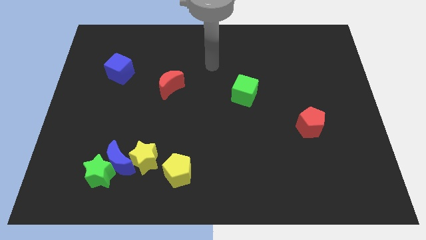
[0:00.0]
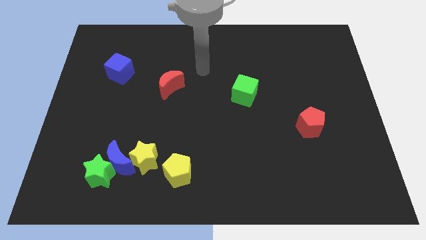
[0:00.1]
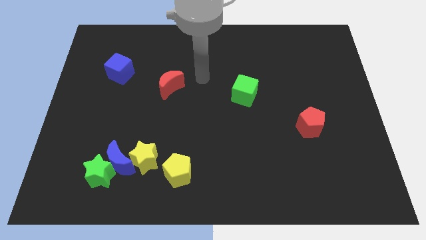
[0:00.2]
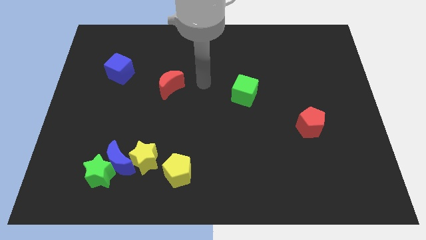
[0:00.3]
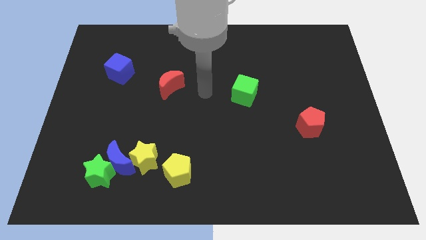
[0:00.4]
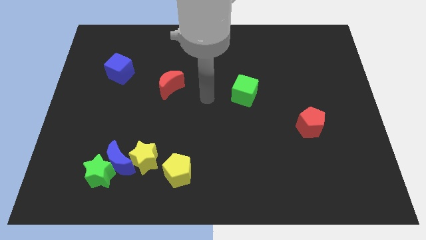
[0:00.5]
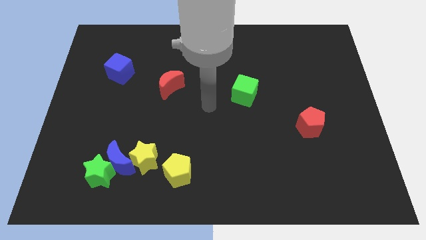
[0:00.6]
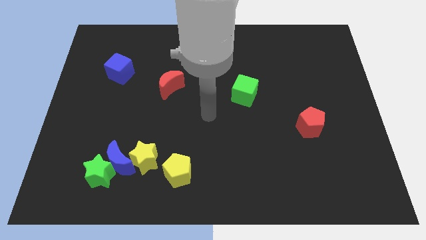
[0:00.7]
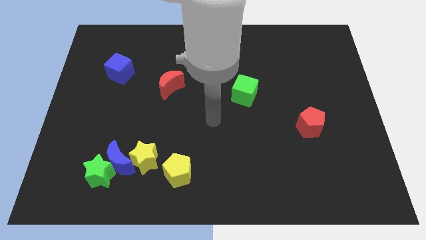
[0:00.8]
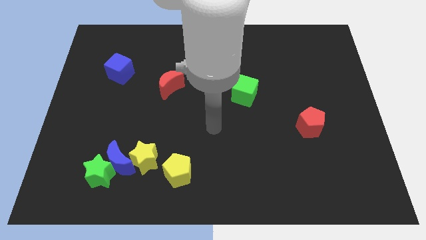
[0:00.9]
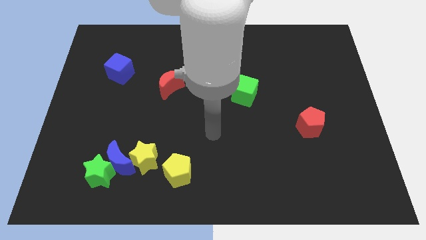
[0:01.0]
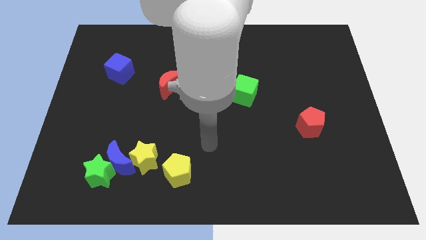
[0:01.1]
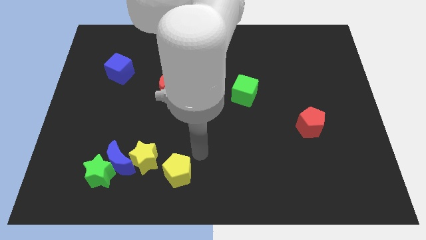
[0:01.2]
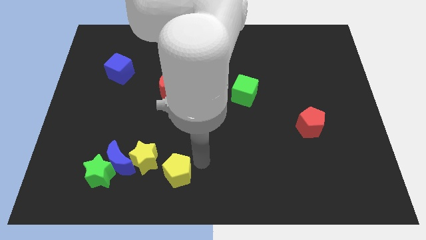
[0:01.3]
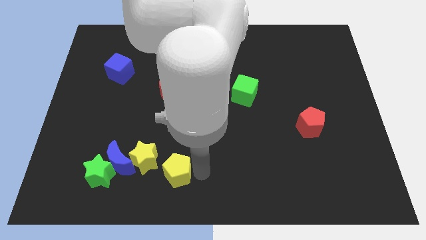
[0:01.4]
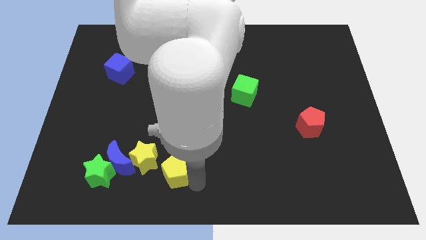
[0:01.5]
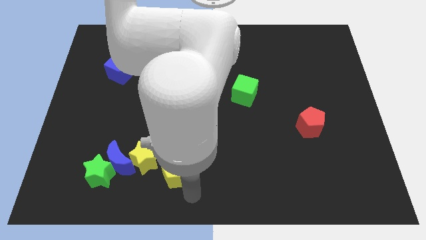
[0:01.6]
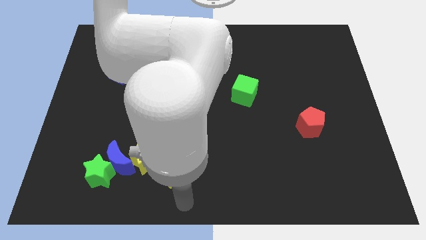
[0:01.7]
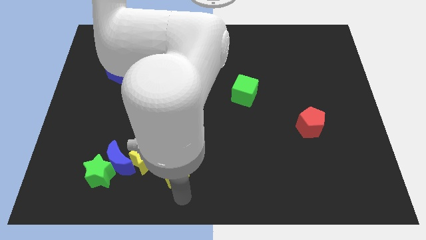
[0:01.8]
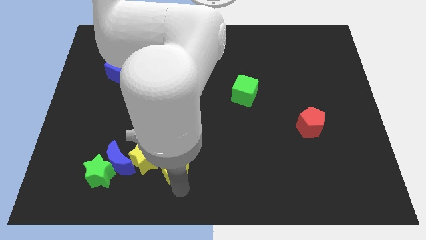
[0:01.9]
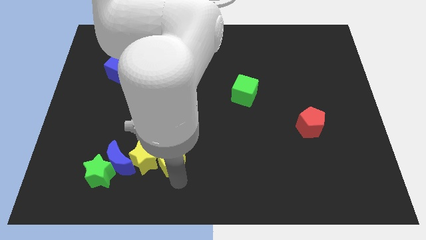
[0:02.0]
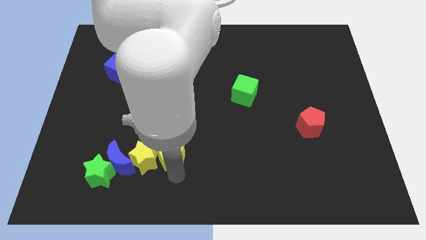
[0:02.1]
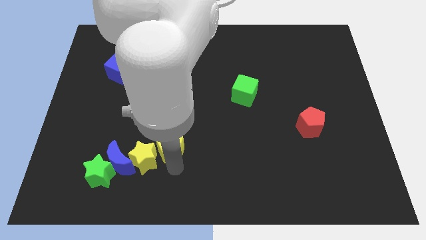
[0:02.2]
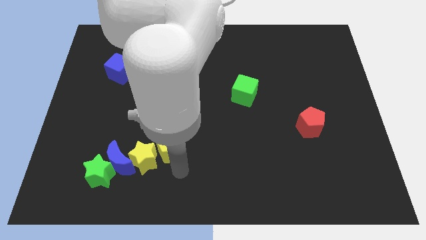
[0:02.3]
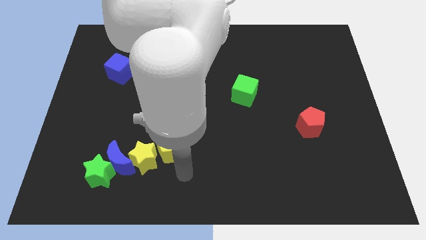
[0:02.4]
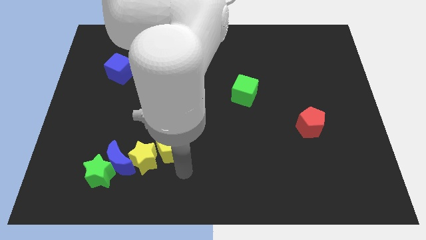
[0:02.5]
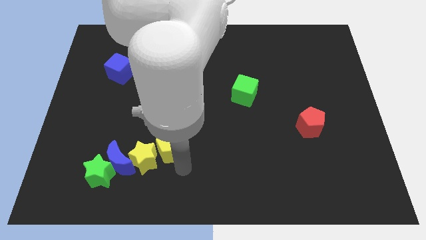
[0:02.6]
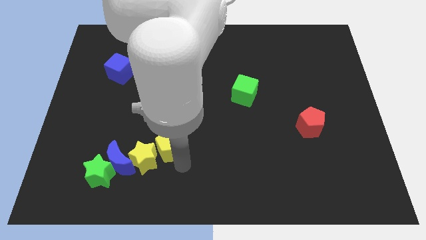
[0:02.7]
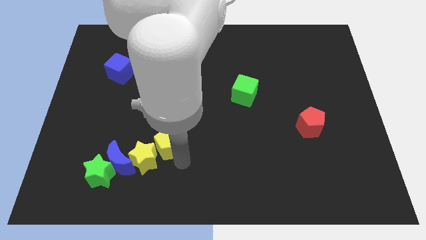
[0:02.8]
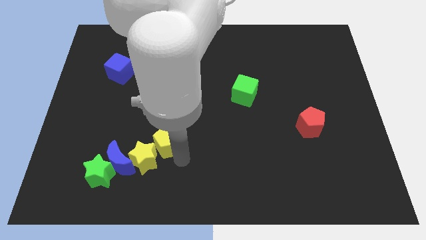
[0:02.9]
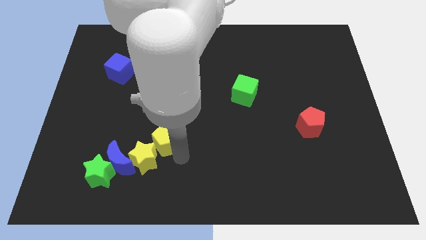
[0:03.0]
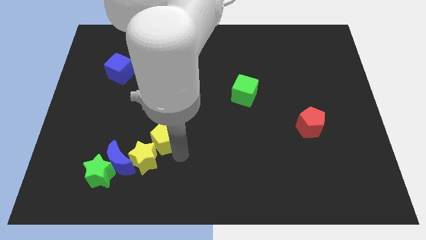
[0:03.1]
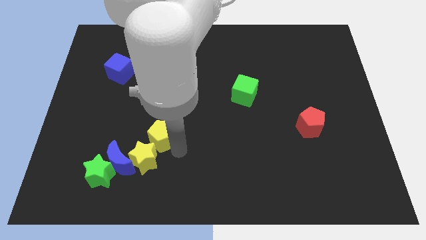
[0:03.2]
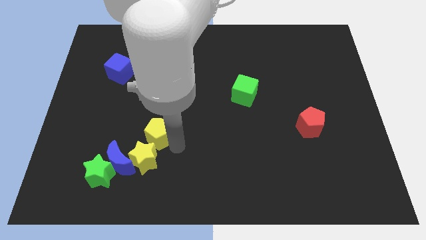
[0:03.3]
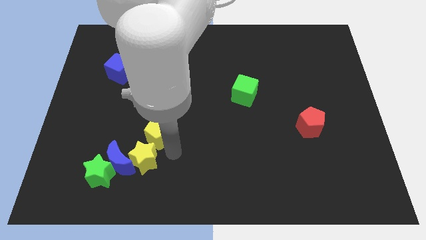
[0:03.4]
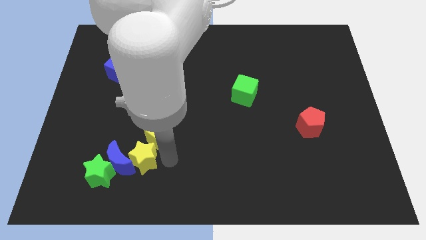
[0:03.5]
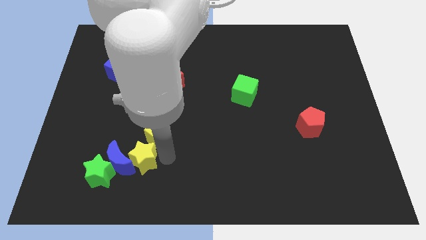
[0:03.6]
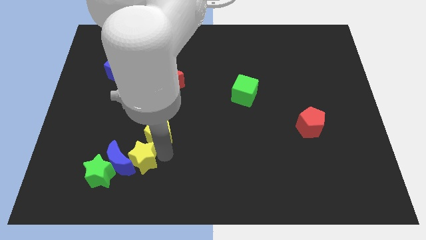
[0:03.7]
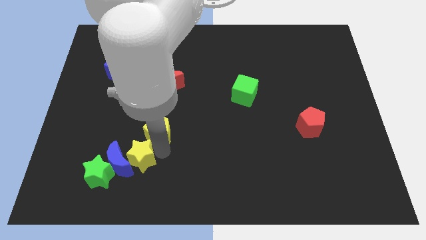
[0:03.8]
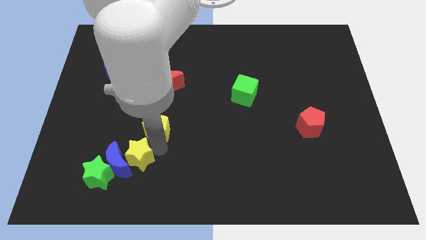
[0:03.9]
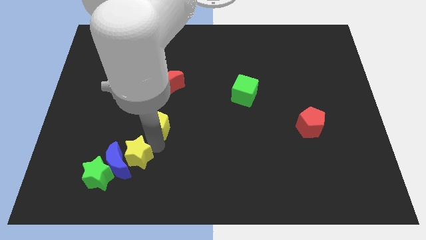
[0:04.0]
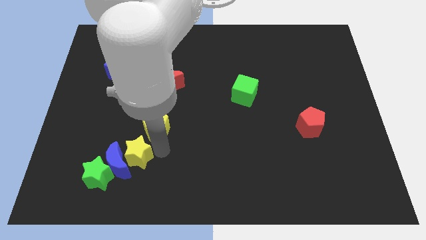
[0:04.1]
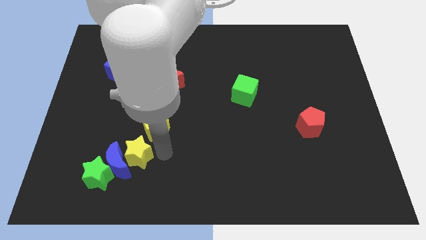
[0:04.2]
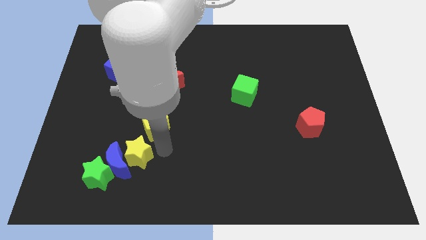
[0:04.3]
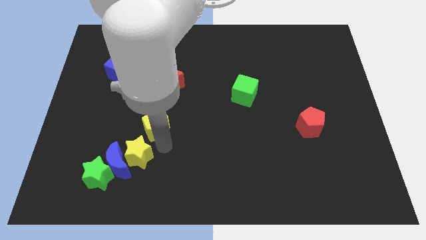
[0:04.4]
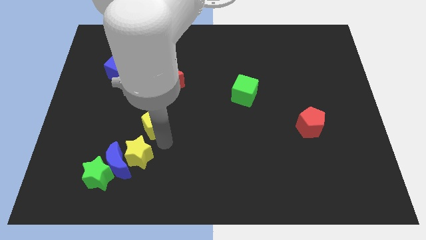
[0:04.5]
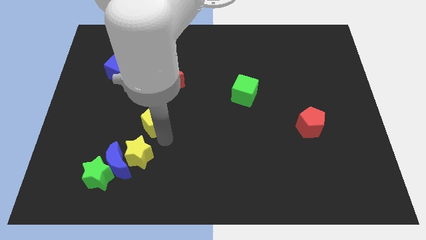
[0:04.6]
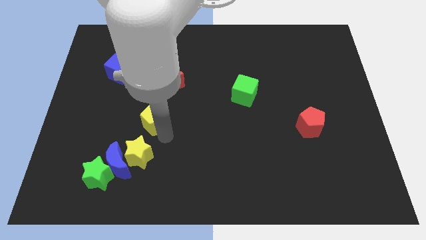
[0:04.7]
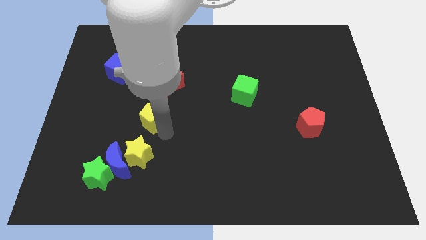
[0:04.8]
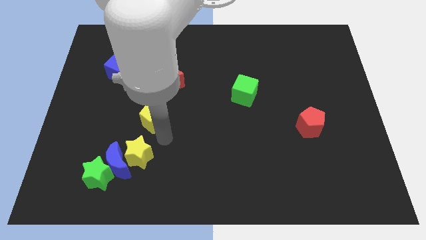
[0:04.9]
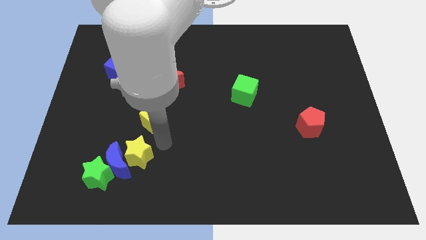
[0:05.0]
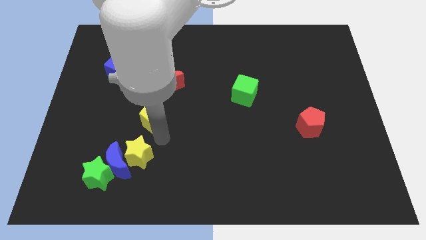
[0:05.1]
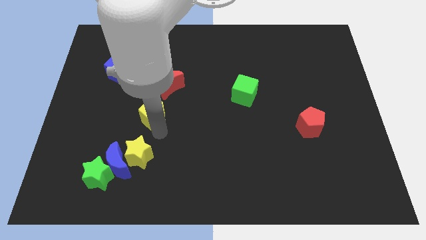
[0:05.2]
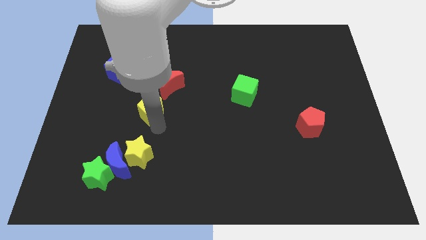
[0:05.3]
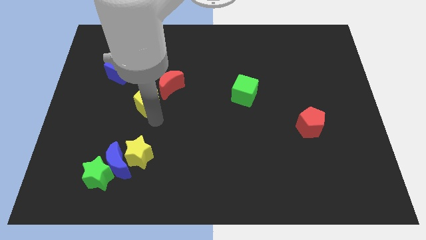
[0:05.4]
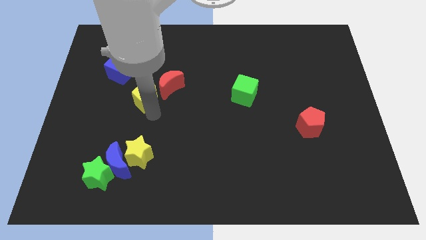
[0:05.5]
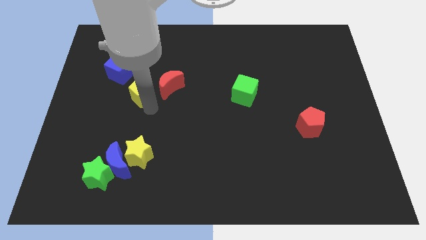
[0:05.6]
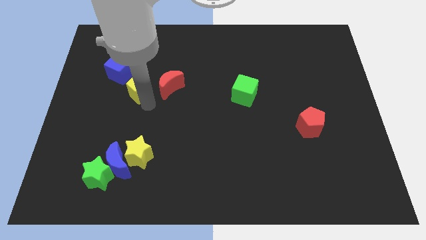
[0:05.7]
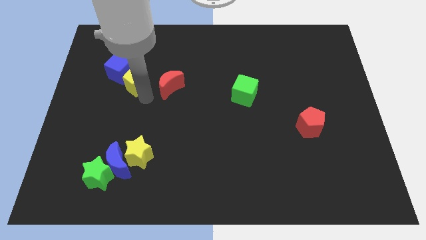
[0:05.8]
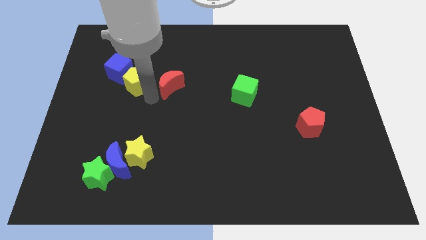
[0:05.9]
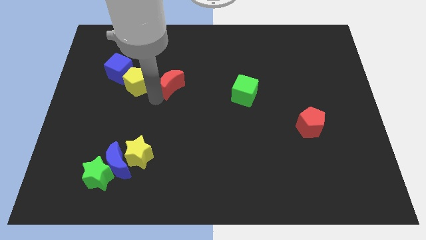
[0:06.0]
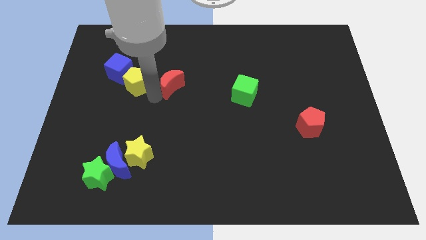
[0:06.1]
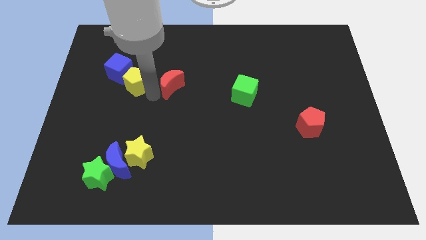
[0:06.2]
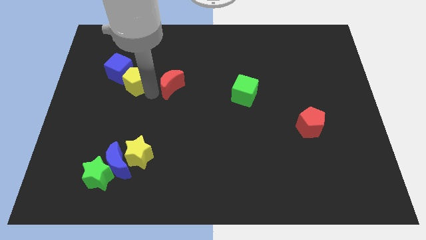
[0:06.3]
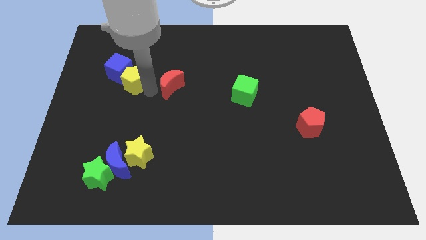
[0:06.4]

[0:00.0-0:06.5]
move the yellow pentagon next to the blue cube

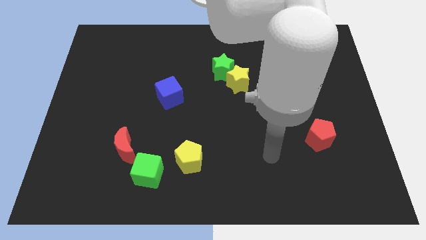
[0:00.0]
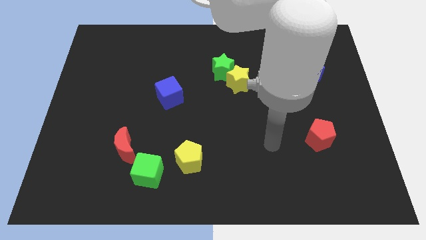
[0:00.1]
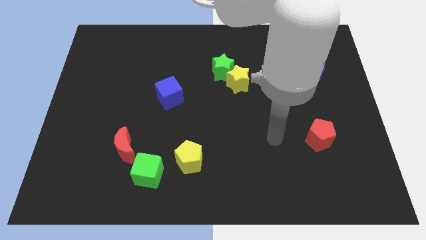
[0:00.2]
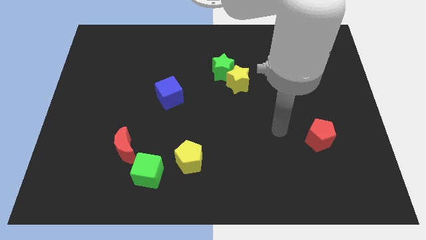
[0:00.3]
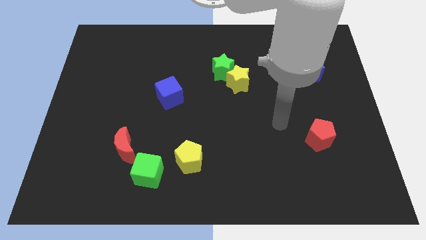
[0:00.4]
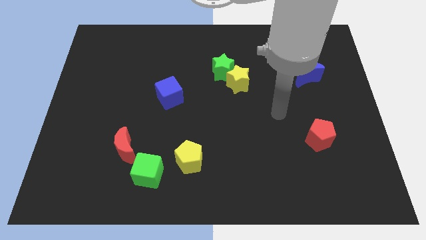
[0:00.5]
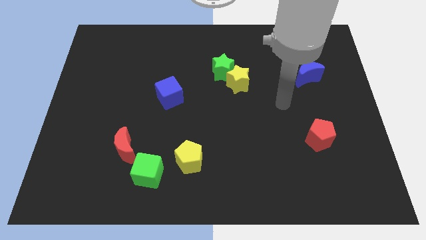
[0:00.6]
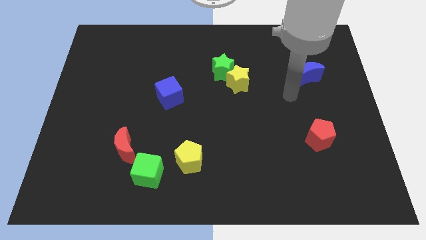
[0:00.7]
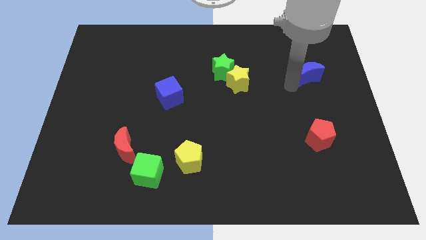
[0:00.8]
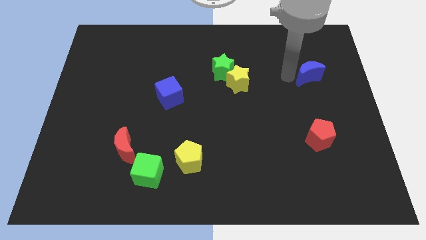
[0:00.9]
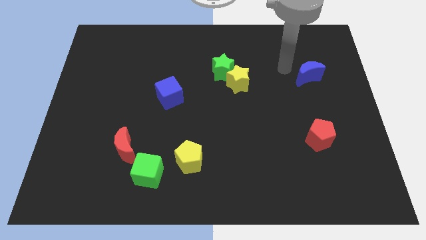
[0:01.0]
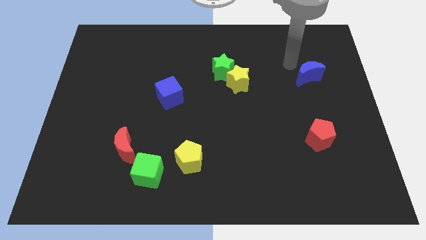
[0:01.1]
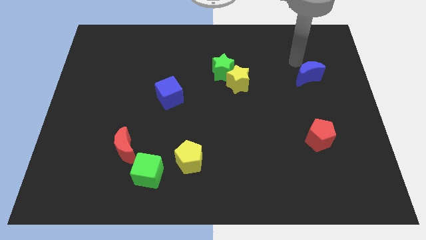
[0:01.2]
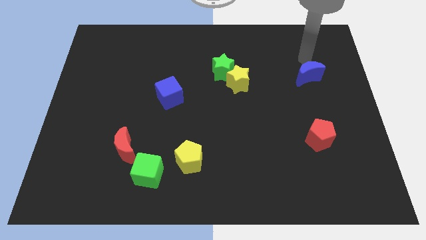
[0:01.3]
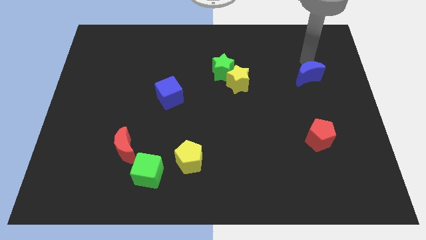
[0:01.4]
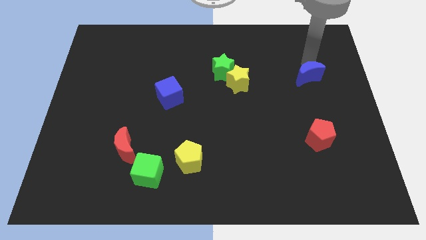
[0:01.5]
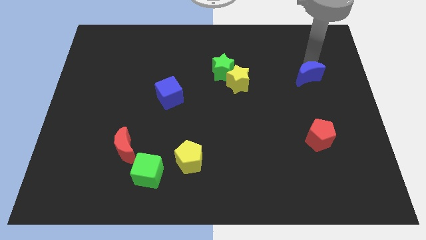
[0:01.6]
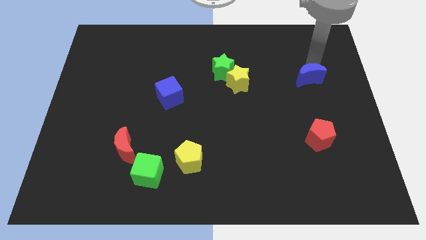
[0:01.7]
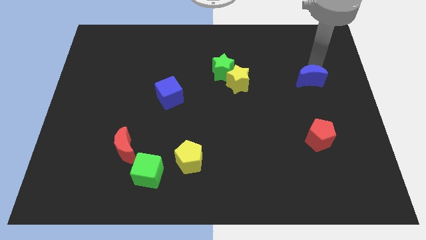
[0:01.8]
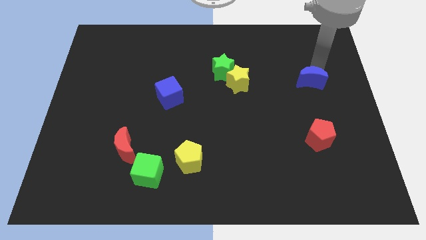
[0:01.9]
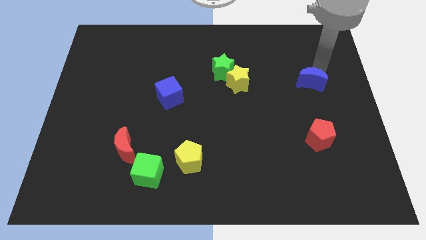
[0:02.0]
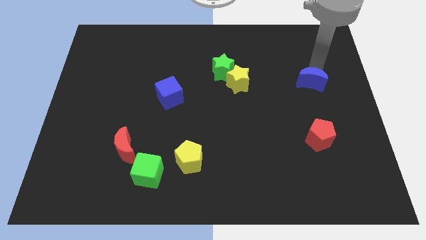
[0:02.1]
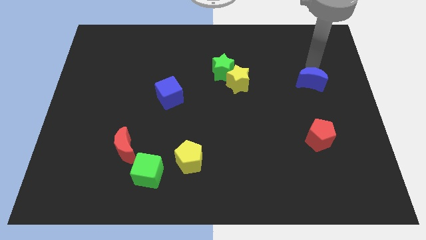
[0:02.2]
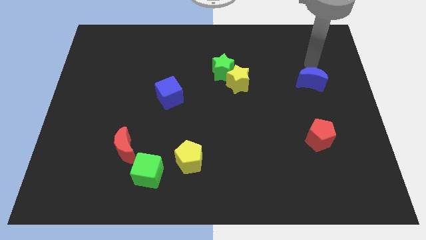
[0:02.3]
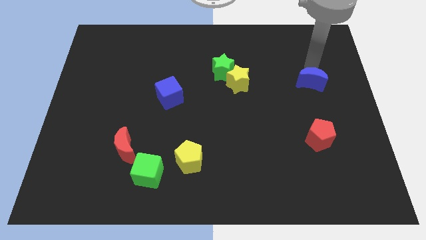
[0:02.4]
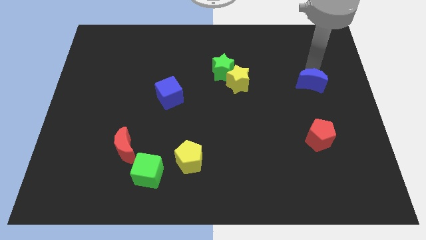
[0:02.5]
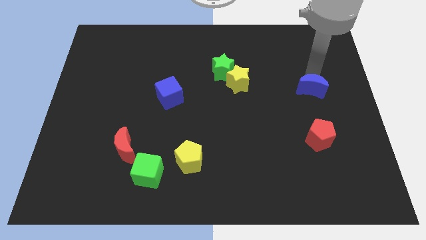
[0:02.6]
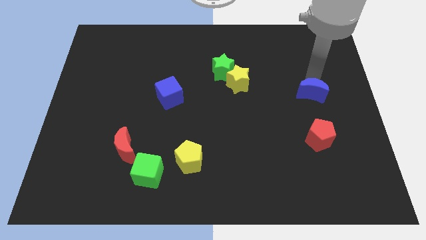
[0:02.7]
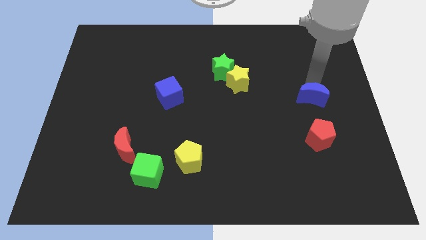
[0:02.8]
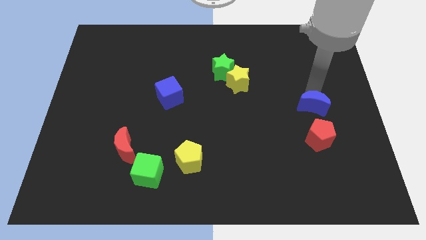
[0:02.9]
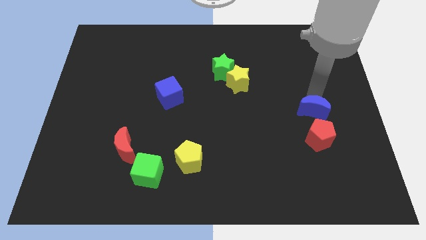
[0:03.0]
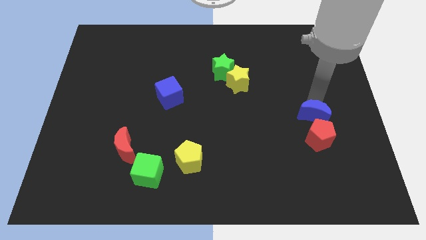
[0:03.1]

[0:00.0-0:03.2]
move the blue moon next to the red pentagon
